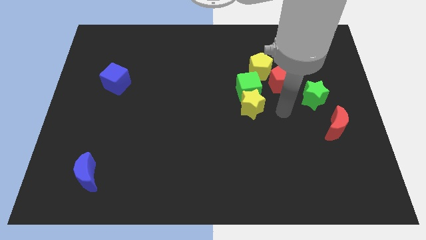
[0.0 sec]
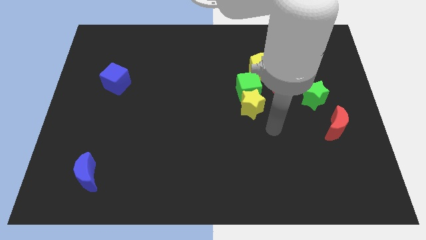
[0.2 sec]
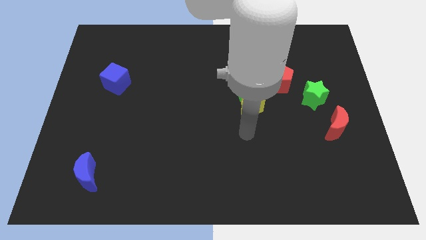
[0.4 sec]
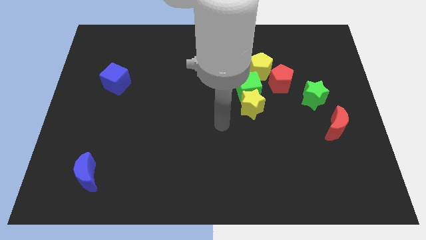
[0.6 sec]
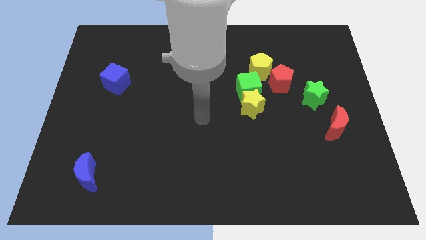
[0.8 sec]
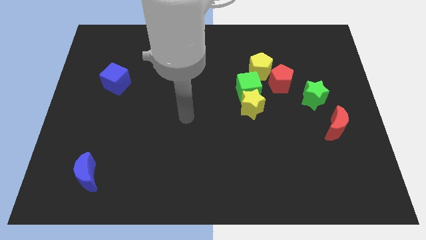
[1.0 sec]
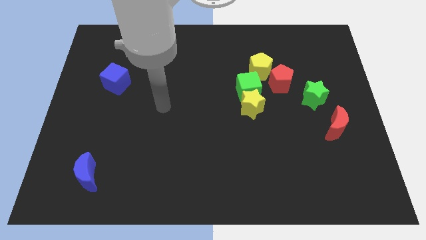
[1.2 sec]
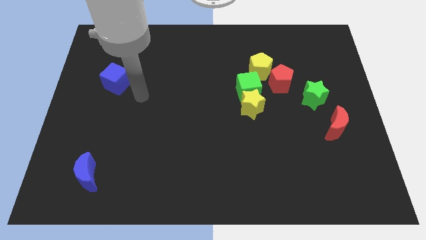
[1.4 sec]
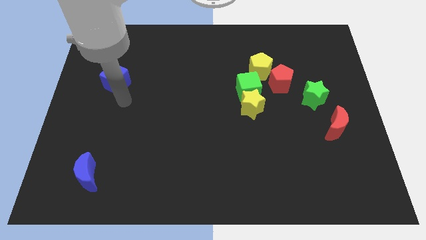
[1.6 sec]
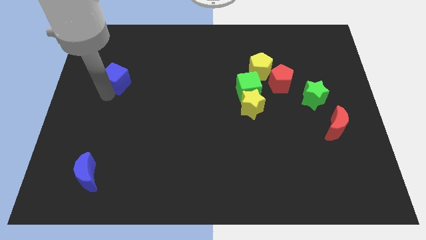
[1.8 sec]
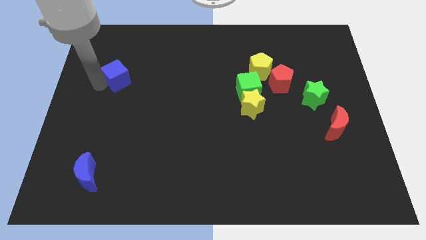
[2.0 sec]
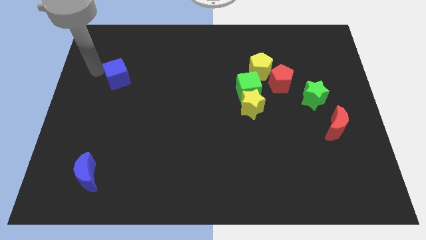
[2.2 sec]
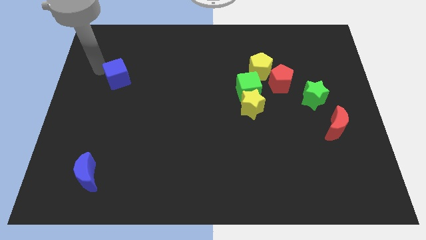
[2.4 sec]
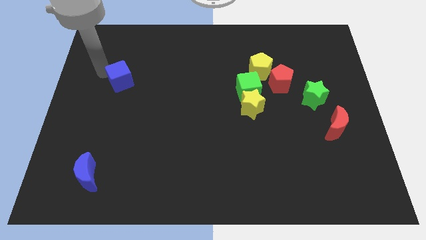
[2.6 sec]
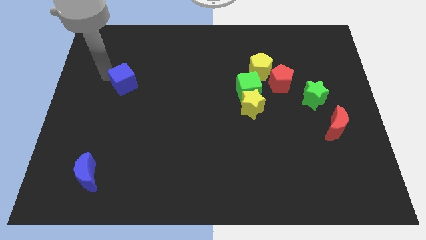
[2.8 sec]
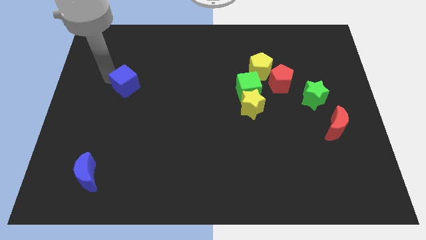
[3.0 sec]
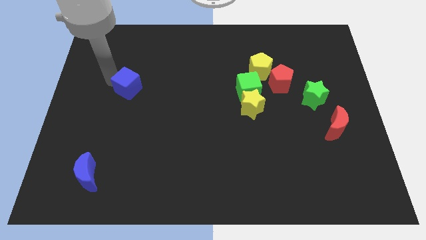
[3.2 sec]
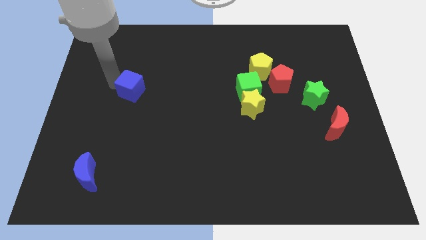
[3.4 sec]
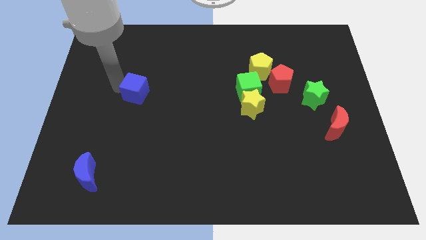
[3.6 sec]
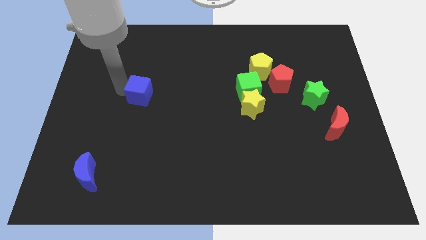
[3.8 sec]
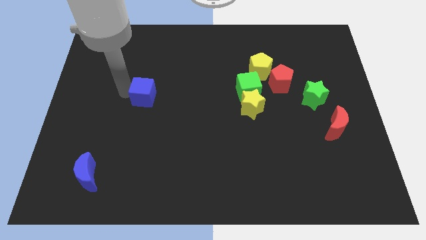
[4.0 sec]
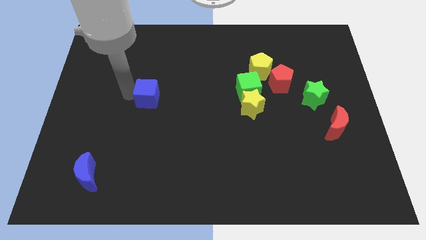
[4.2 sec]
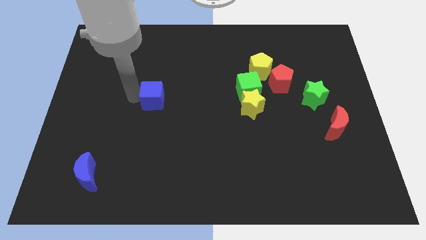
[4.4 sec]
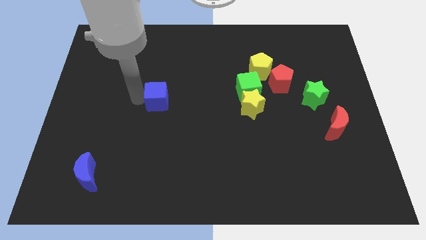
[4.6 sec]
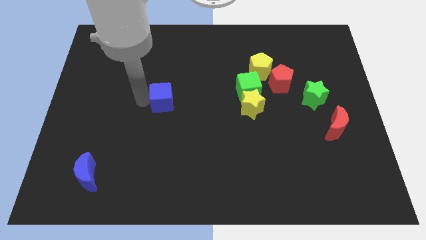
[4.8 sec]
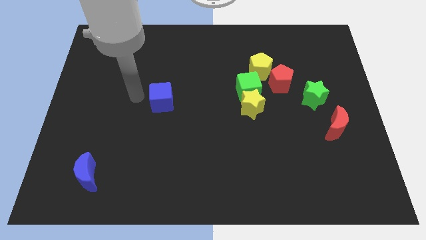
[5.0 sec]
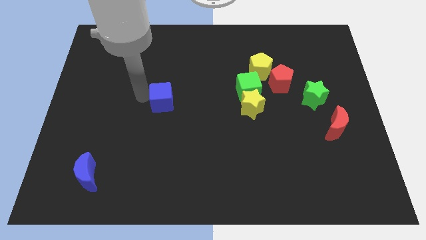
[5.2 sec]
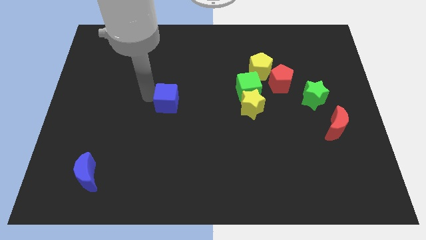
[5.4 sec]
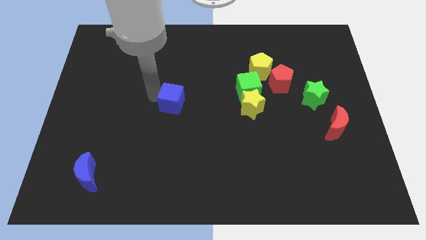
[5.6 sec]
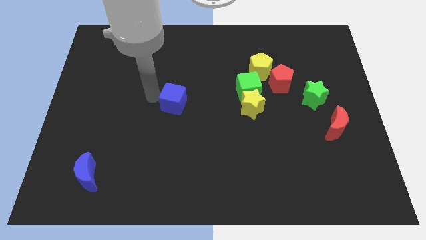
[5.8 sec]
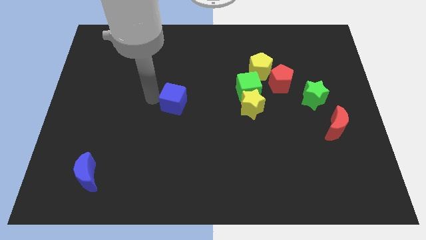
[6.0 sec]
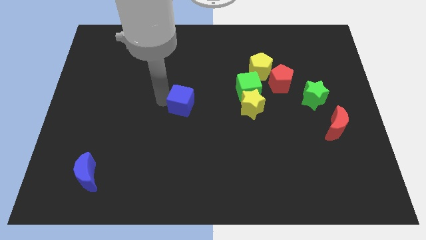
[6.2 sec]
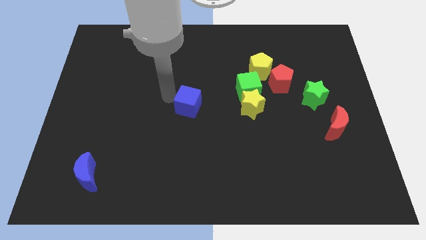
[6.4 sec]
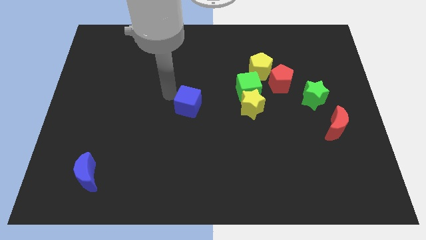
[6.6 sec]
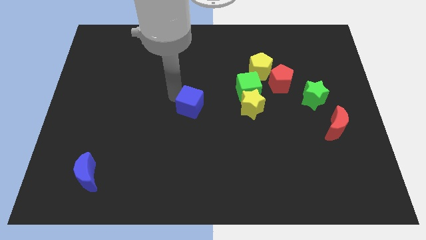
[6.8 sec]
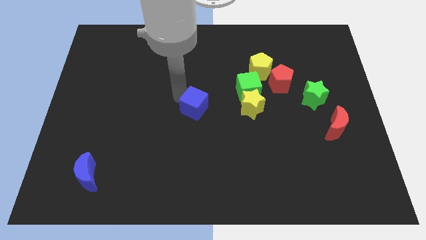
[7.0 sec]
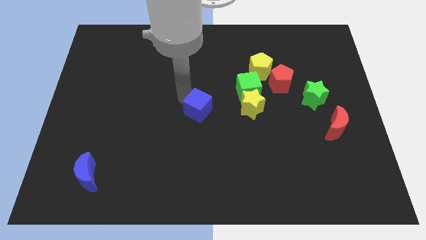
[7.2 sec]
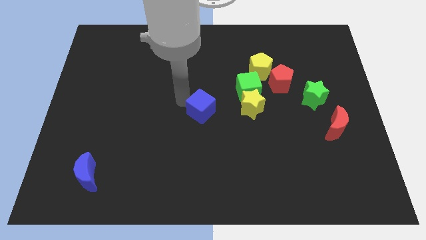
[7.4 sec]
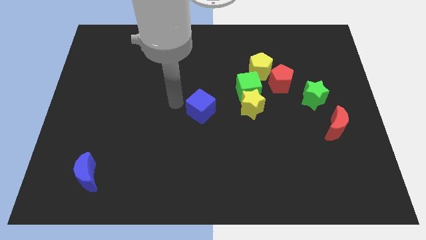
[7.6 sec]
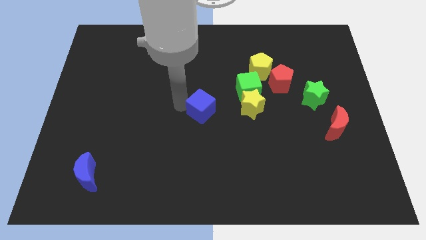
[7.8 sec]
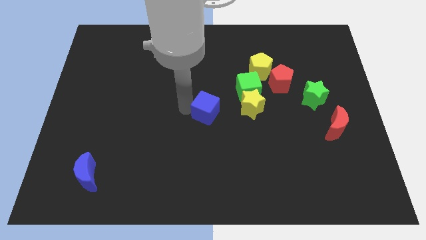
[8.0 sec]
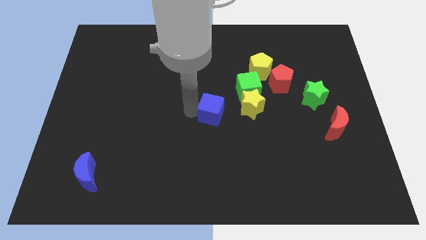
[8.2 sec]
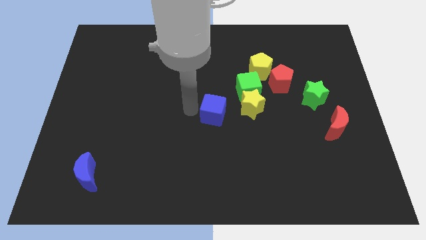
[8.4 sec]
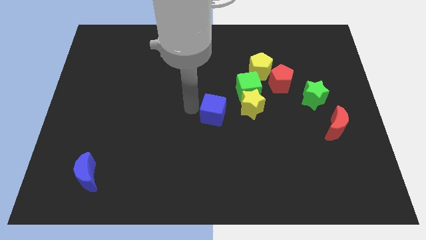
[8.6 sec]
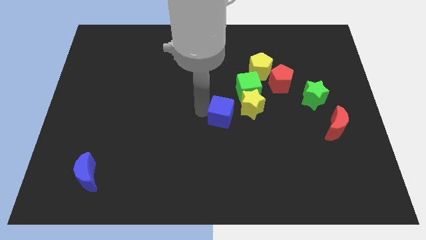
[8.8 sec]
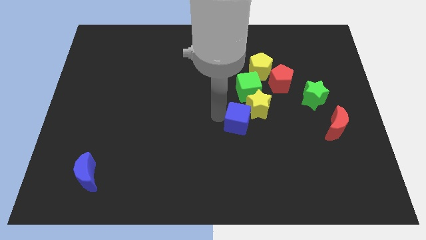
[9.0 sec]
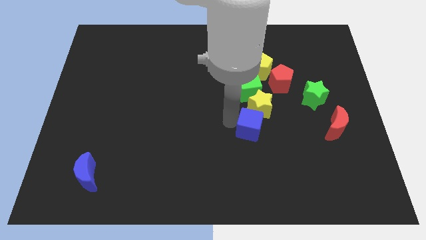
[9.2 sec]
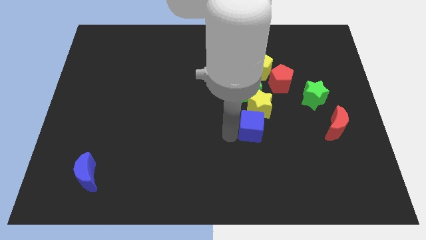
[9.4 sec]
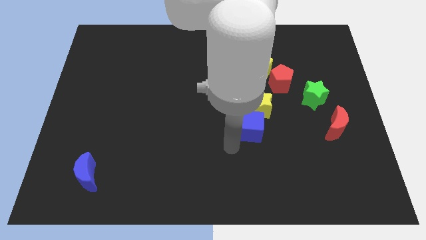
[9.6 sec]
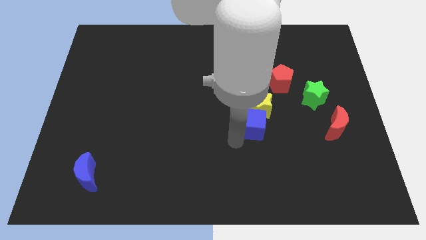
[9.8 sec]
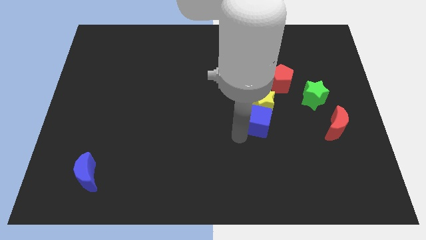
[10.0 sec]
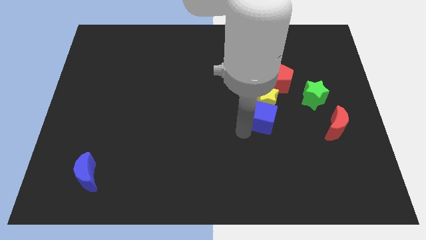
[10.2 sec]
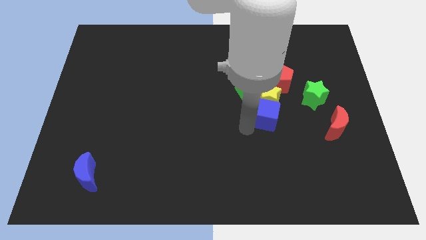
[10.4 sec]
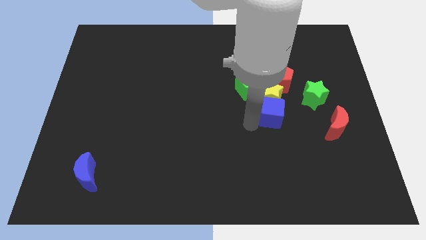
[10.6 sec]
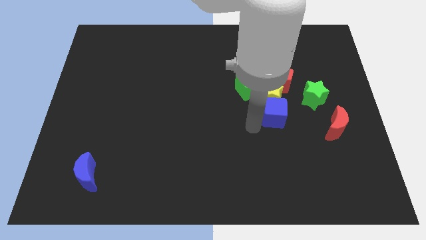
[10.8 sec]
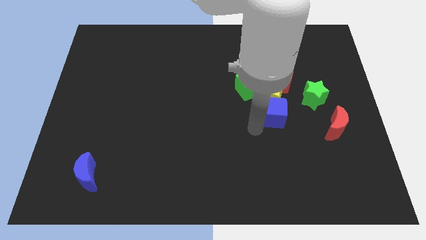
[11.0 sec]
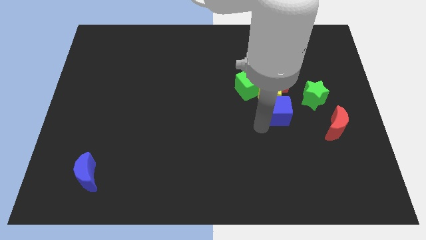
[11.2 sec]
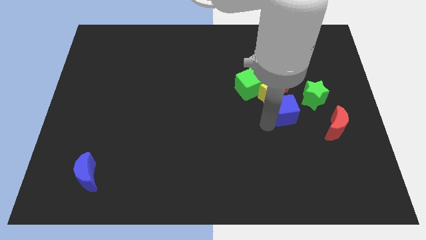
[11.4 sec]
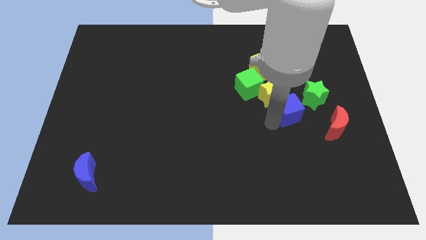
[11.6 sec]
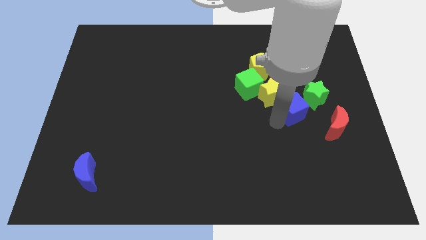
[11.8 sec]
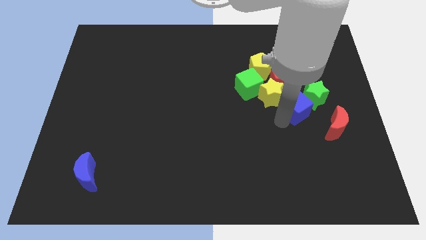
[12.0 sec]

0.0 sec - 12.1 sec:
put the blue cube next to the green star
